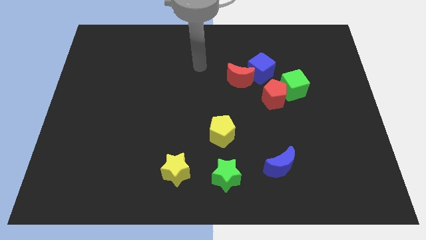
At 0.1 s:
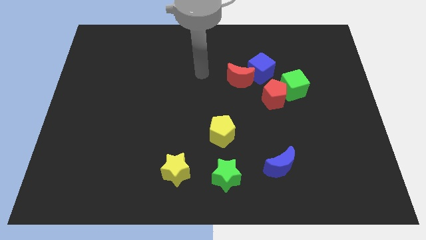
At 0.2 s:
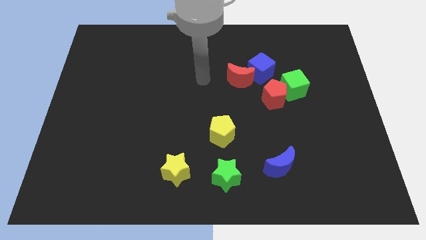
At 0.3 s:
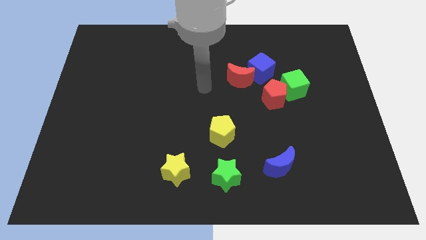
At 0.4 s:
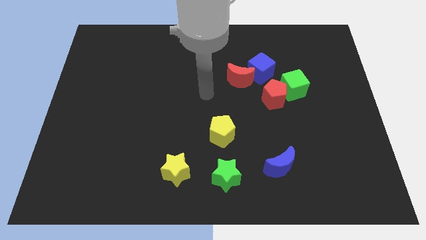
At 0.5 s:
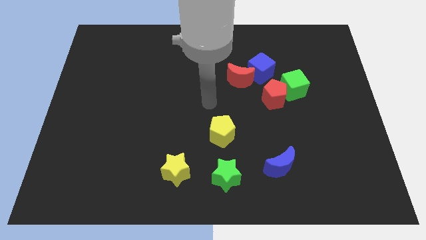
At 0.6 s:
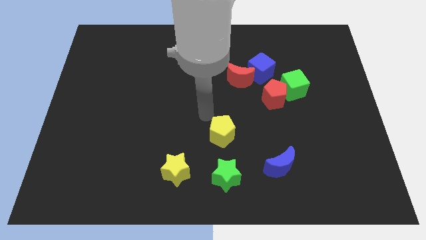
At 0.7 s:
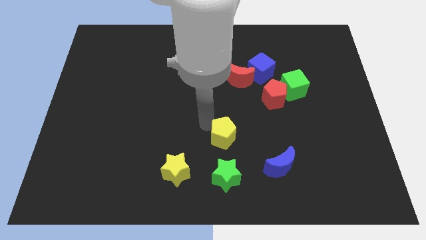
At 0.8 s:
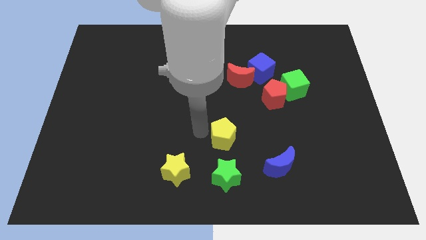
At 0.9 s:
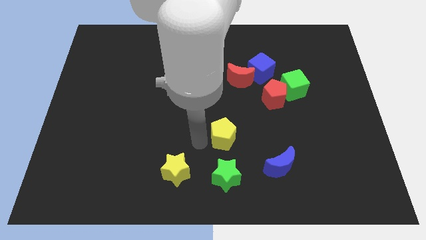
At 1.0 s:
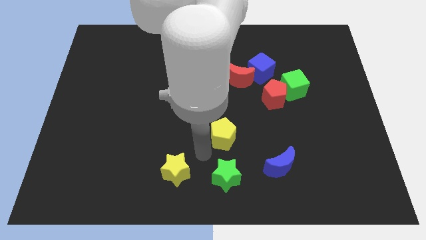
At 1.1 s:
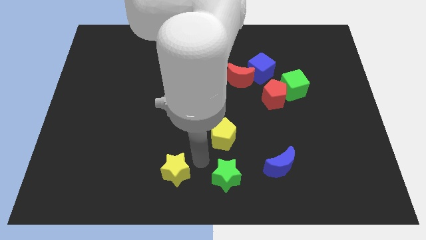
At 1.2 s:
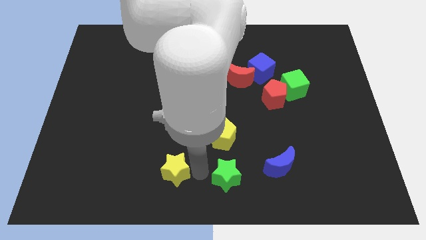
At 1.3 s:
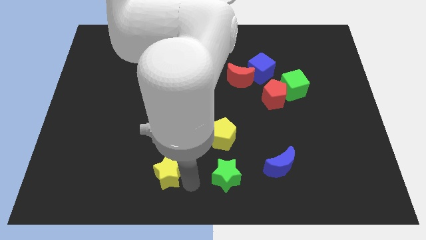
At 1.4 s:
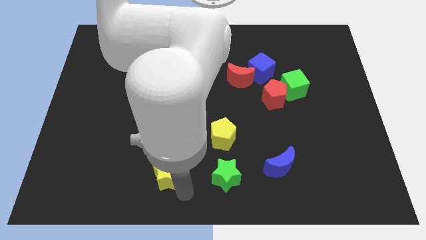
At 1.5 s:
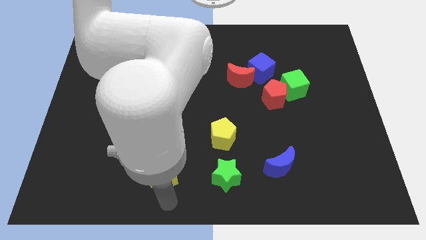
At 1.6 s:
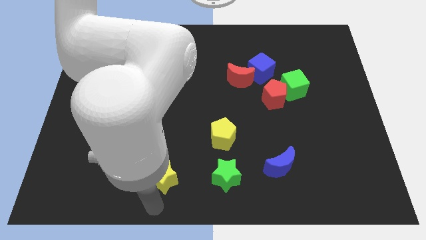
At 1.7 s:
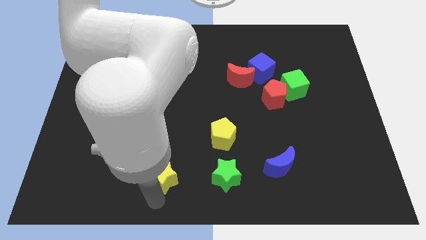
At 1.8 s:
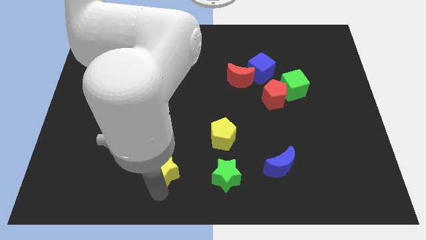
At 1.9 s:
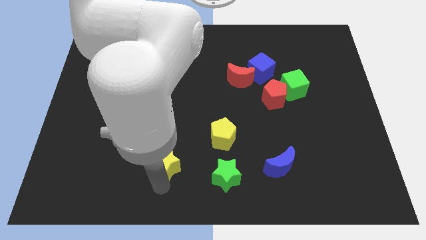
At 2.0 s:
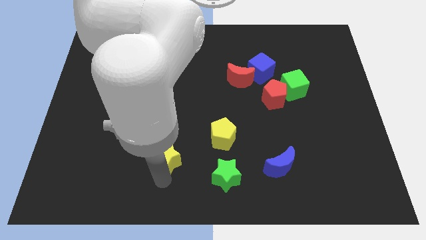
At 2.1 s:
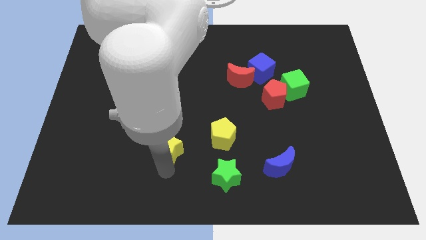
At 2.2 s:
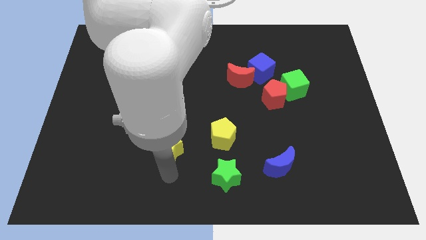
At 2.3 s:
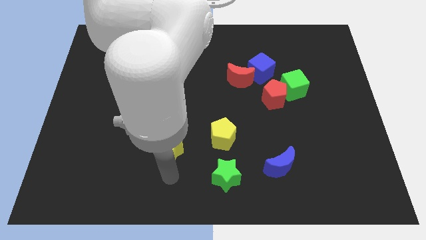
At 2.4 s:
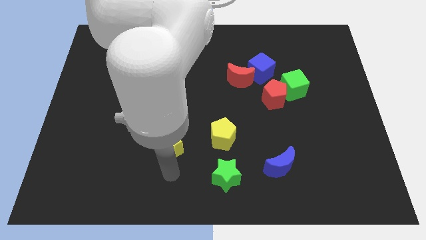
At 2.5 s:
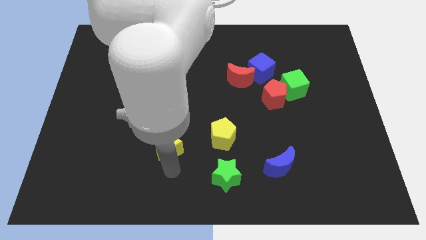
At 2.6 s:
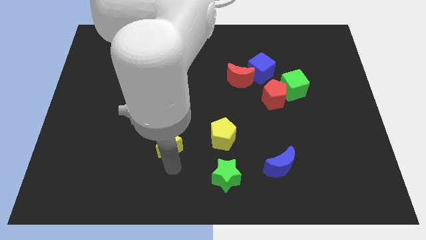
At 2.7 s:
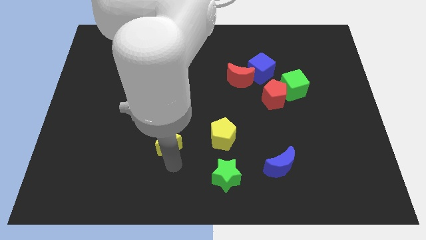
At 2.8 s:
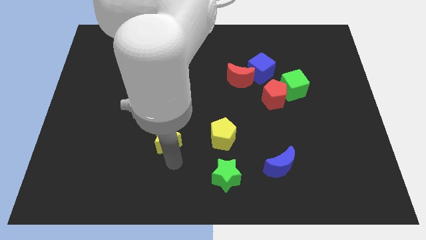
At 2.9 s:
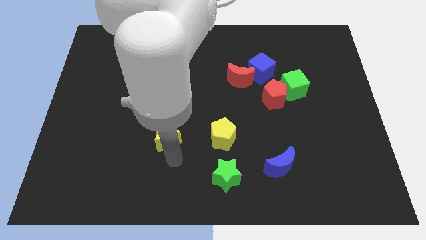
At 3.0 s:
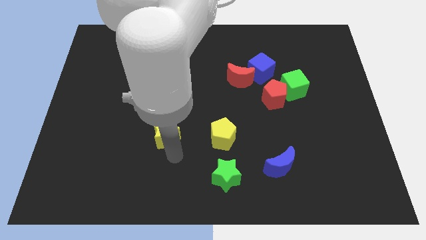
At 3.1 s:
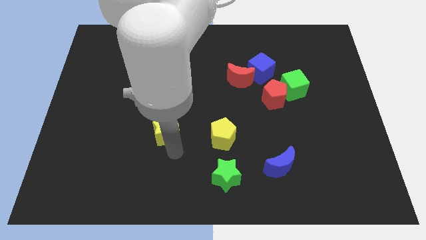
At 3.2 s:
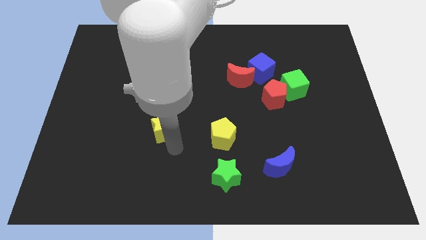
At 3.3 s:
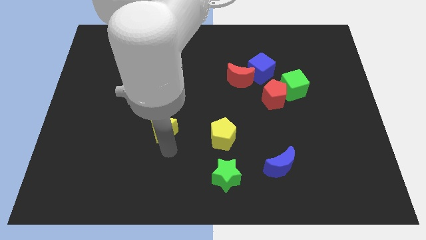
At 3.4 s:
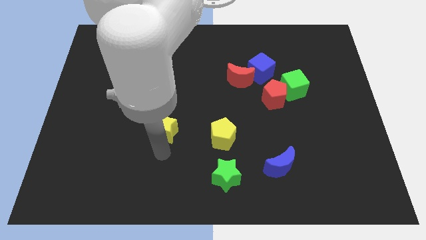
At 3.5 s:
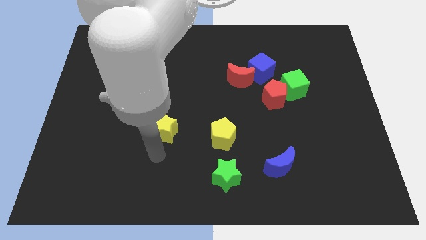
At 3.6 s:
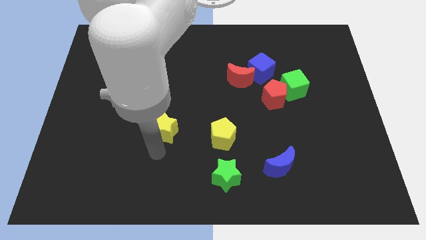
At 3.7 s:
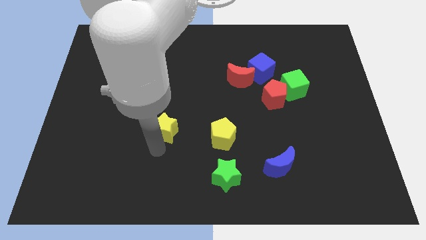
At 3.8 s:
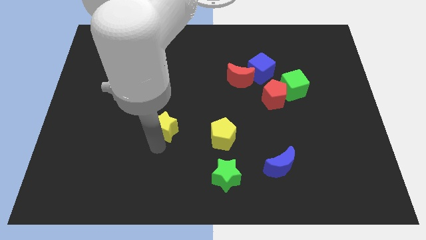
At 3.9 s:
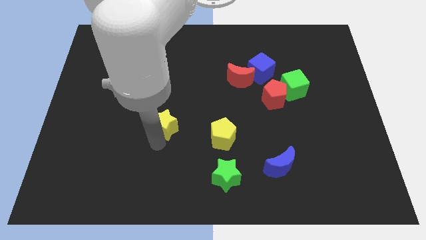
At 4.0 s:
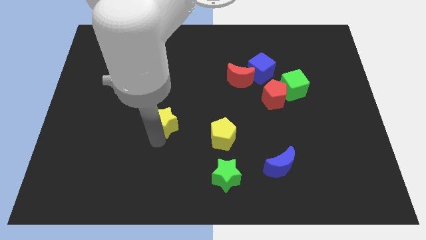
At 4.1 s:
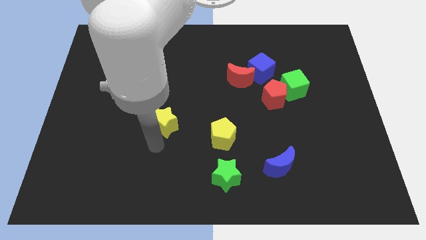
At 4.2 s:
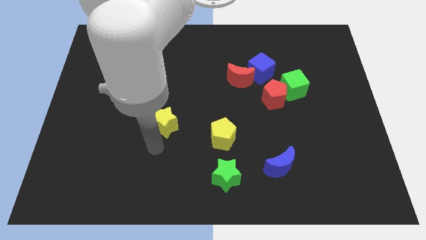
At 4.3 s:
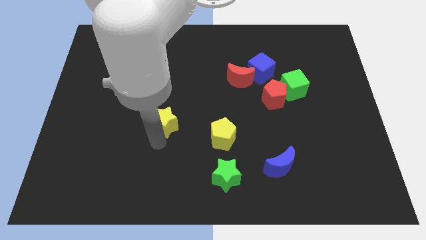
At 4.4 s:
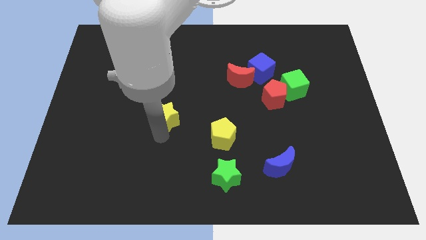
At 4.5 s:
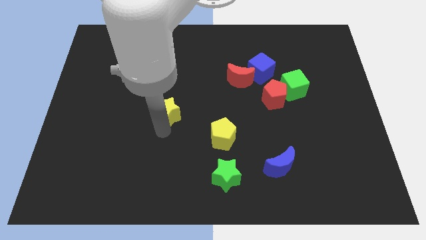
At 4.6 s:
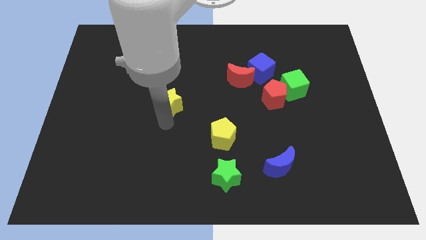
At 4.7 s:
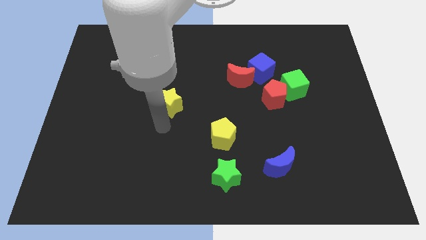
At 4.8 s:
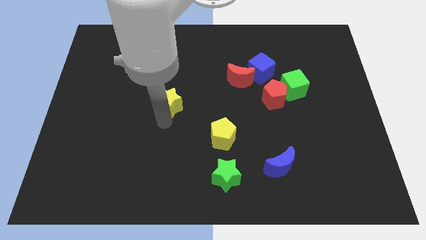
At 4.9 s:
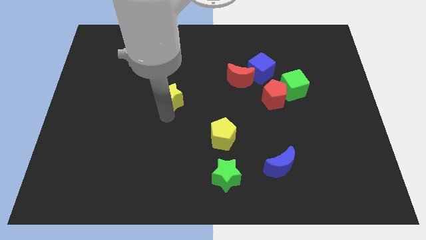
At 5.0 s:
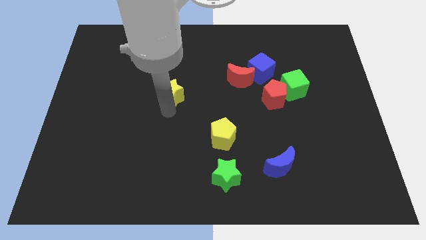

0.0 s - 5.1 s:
push the yellow star upwards

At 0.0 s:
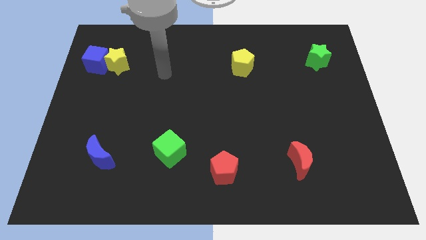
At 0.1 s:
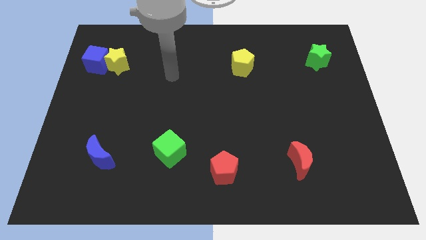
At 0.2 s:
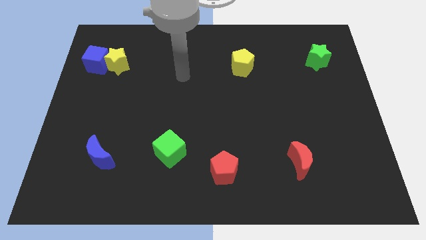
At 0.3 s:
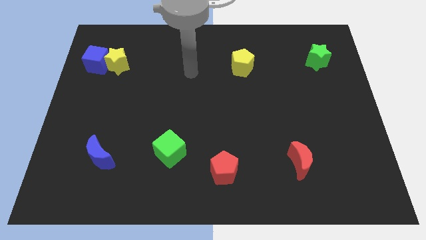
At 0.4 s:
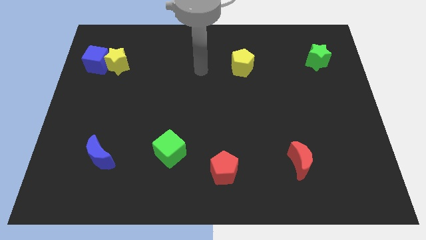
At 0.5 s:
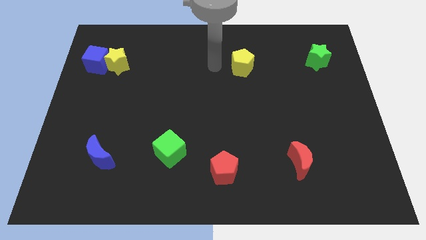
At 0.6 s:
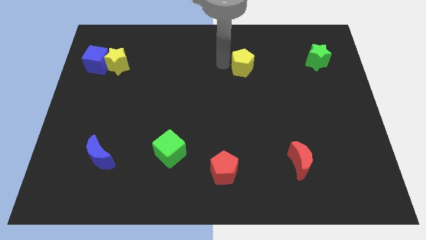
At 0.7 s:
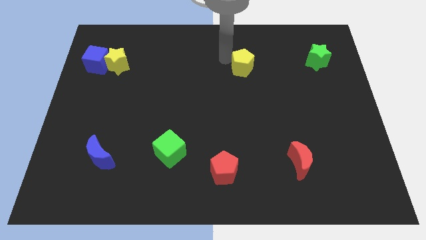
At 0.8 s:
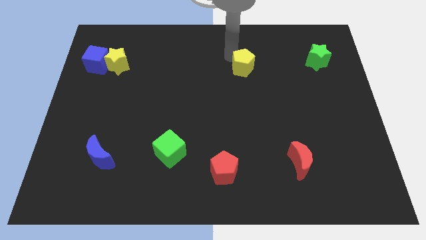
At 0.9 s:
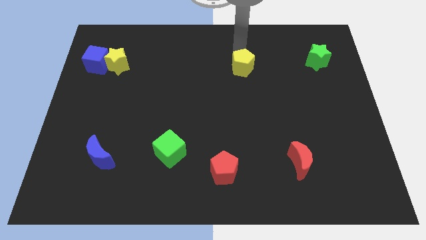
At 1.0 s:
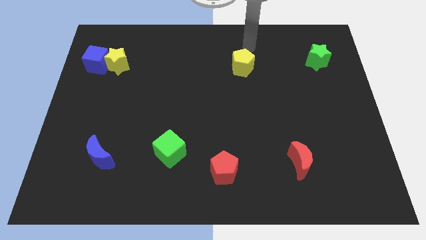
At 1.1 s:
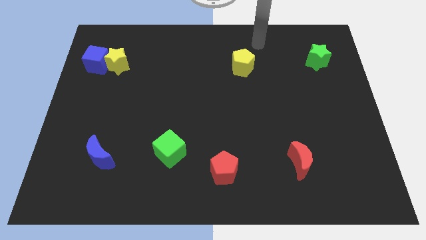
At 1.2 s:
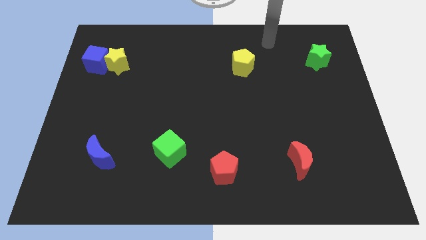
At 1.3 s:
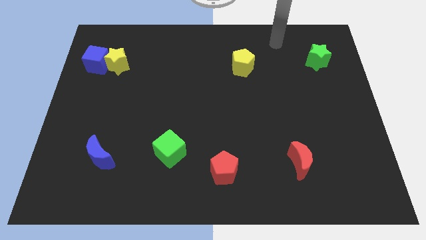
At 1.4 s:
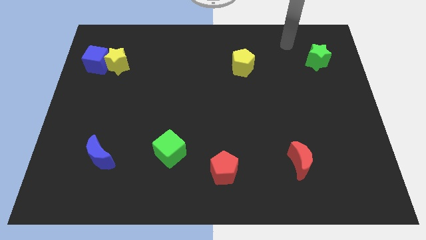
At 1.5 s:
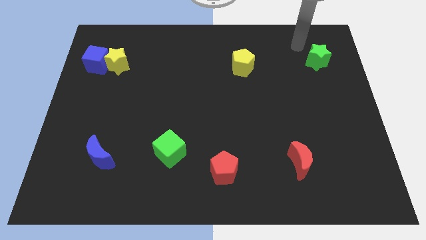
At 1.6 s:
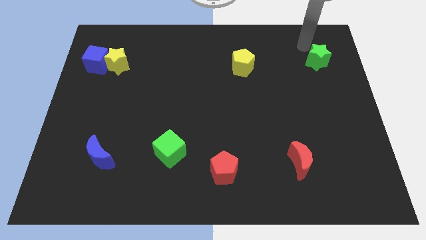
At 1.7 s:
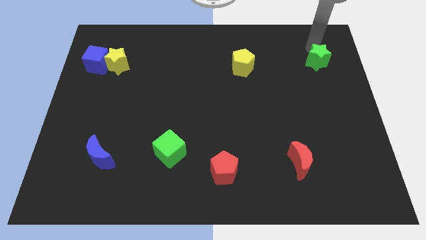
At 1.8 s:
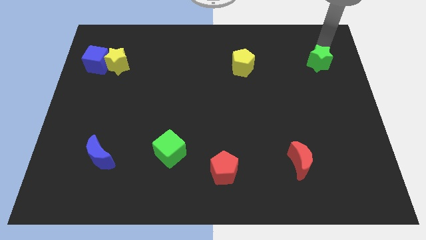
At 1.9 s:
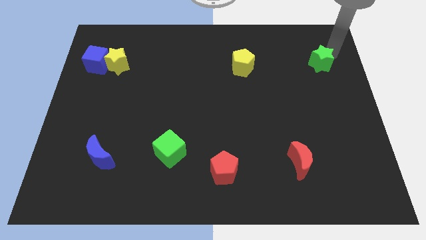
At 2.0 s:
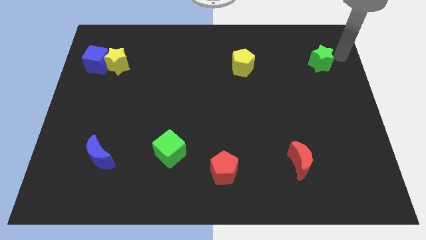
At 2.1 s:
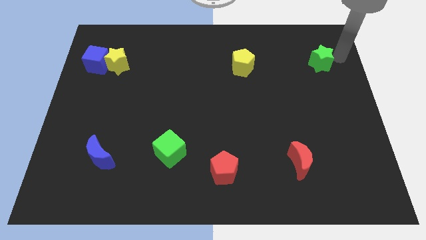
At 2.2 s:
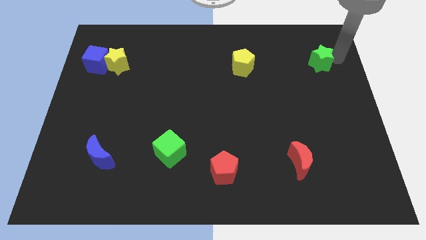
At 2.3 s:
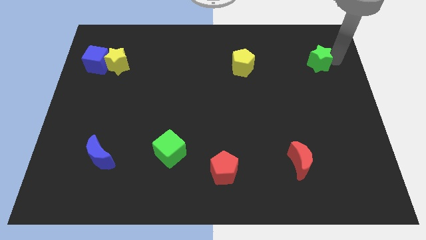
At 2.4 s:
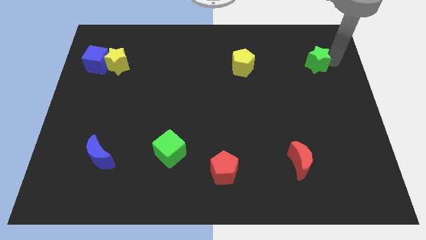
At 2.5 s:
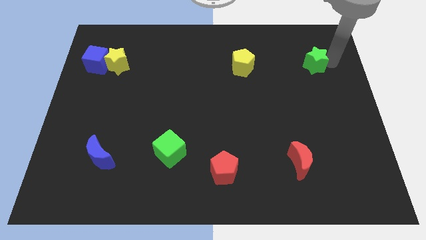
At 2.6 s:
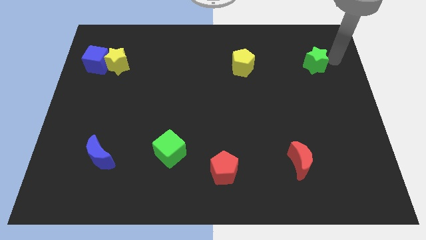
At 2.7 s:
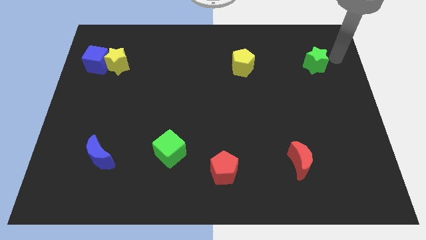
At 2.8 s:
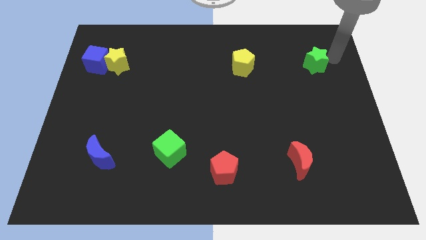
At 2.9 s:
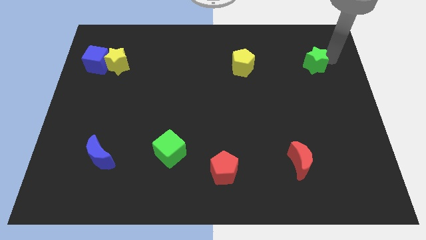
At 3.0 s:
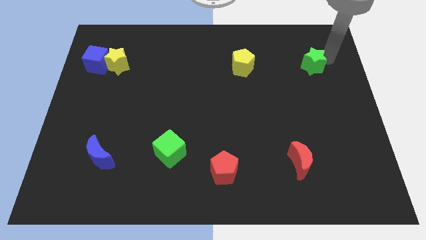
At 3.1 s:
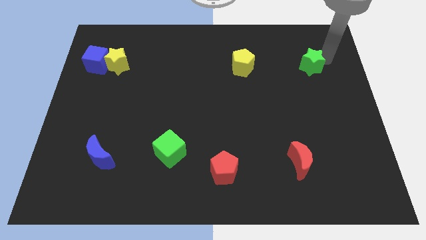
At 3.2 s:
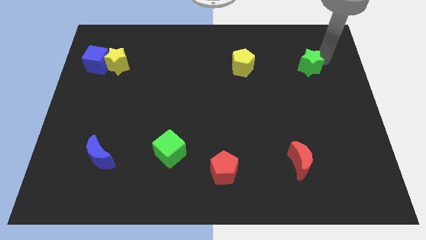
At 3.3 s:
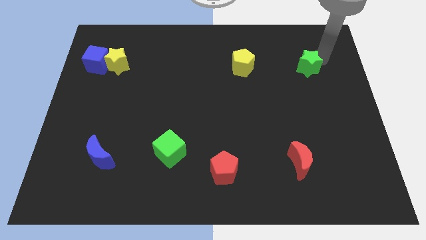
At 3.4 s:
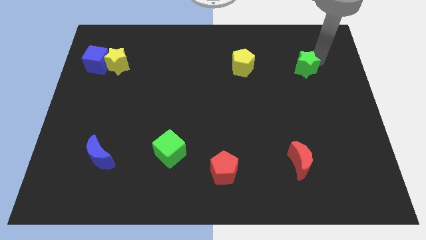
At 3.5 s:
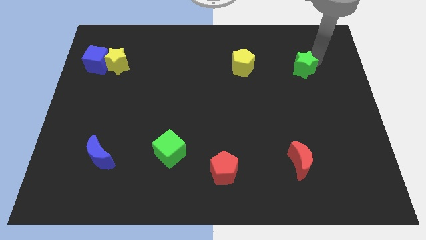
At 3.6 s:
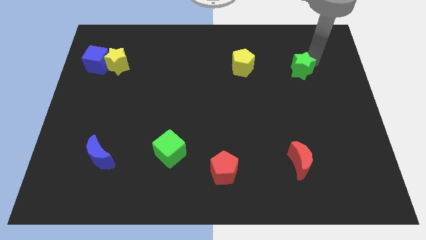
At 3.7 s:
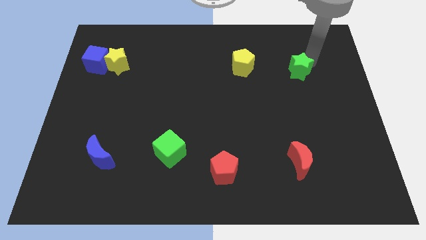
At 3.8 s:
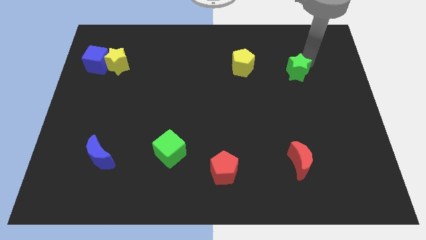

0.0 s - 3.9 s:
slide the green star a bit down and to the left
